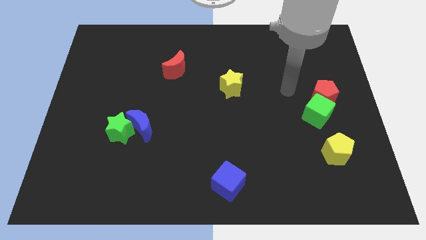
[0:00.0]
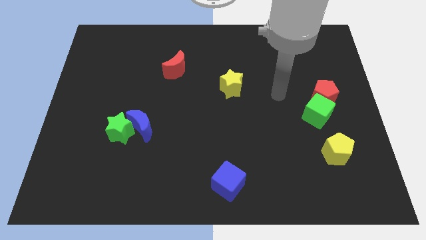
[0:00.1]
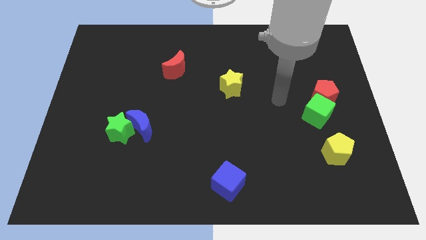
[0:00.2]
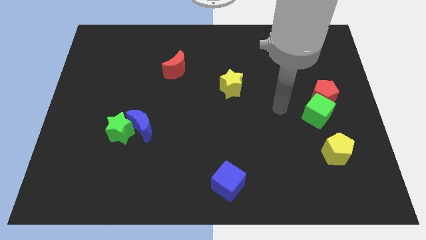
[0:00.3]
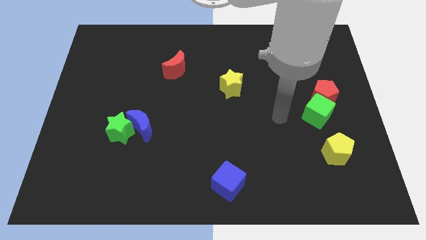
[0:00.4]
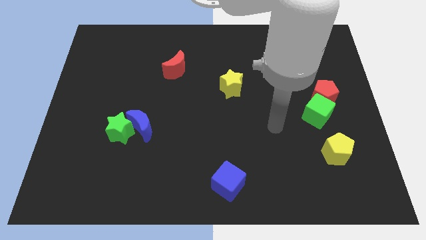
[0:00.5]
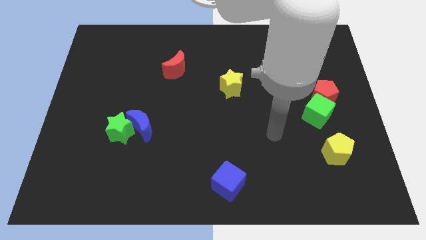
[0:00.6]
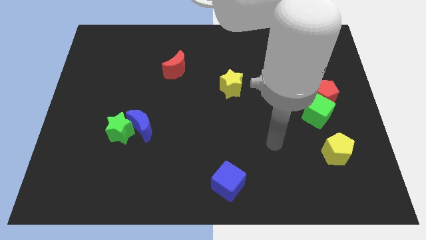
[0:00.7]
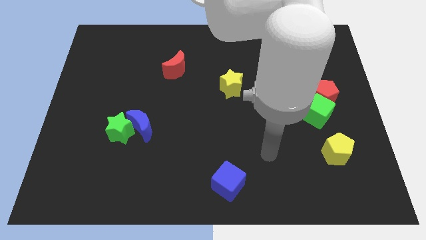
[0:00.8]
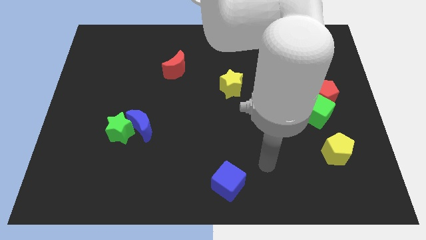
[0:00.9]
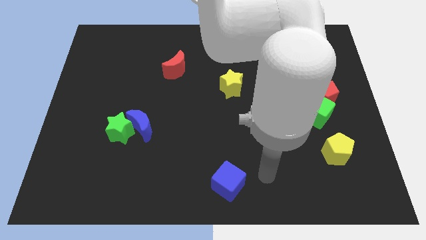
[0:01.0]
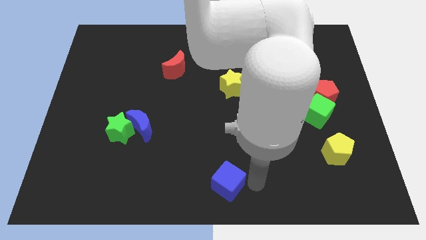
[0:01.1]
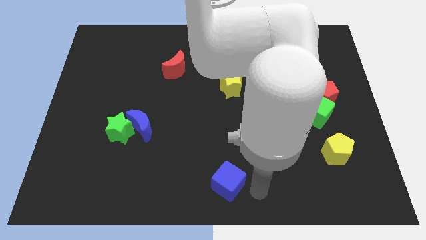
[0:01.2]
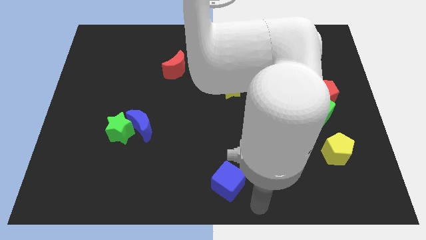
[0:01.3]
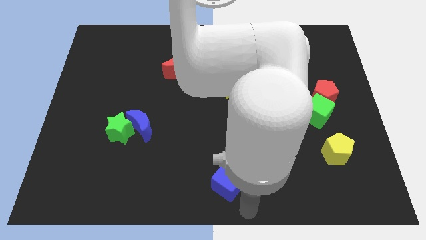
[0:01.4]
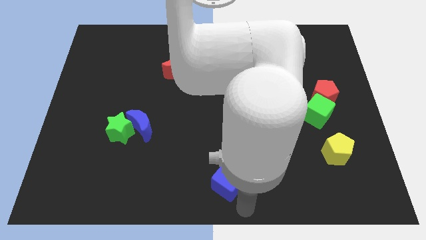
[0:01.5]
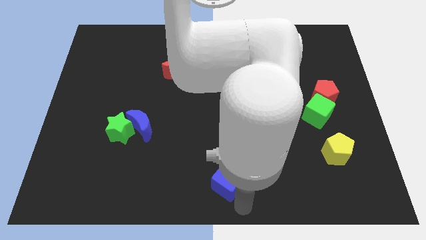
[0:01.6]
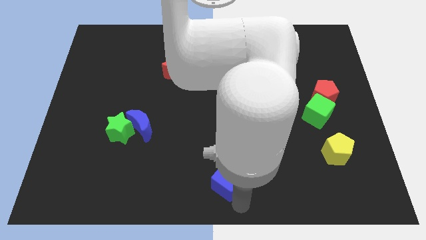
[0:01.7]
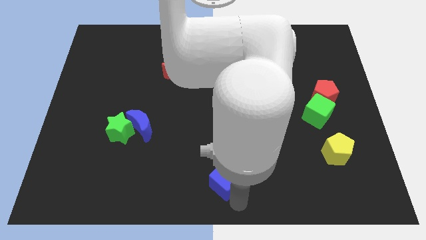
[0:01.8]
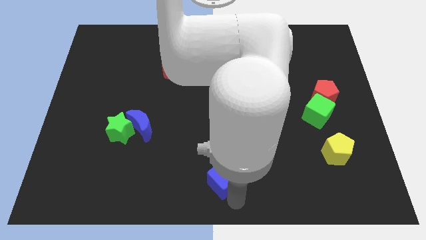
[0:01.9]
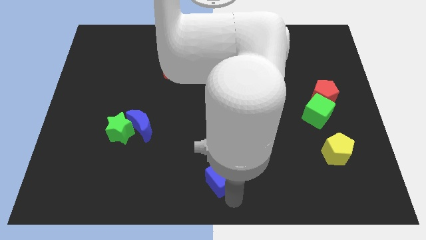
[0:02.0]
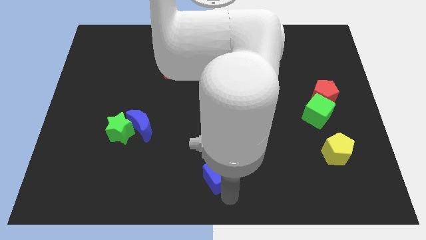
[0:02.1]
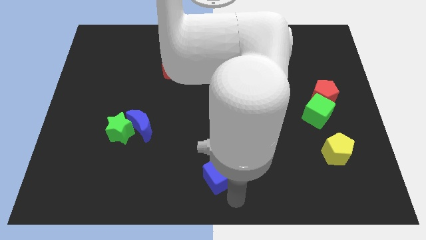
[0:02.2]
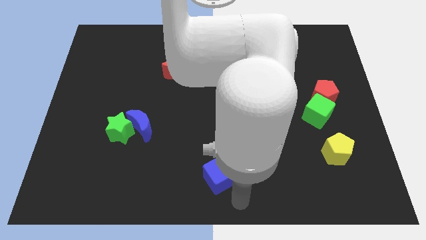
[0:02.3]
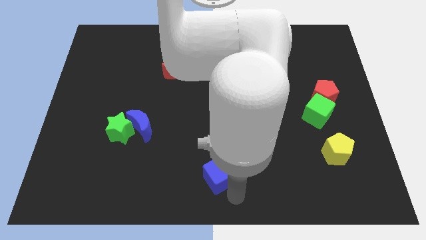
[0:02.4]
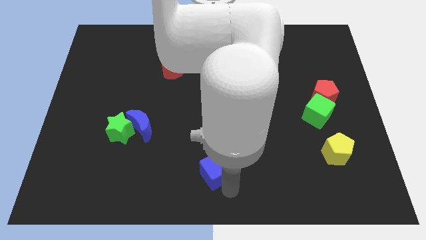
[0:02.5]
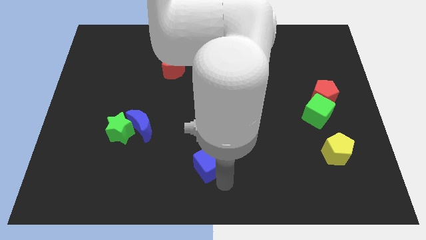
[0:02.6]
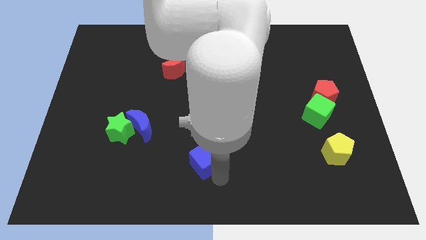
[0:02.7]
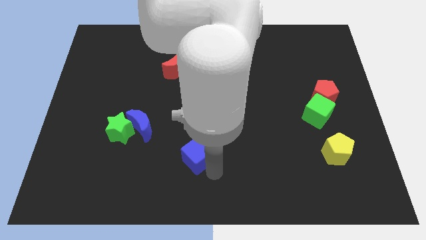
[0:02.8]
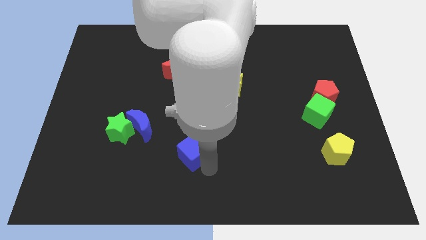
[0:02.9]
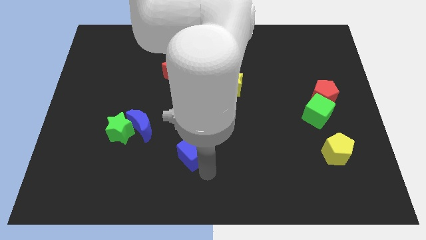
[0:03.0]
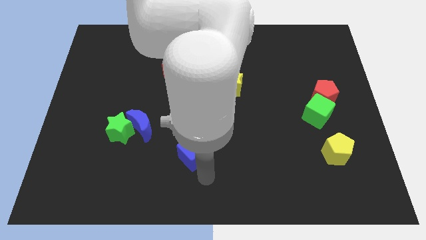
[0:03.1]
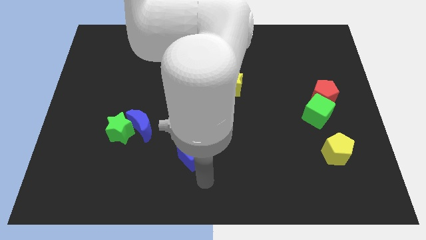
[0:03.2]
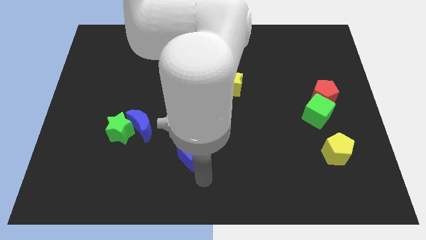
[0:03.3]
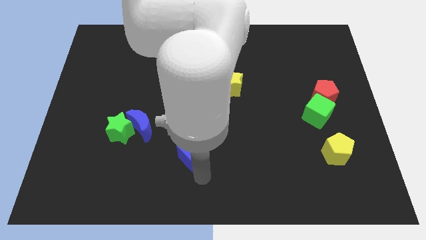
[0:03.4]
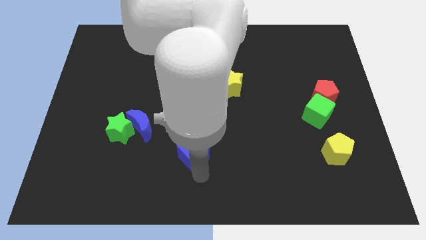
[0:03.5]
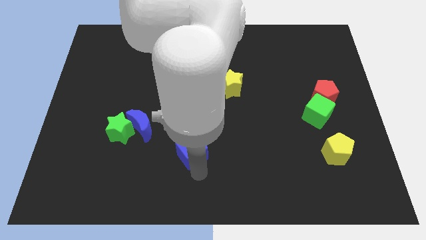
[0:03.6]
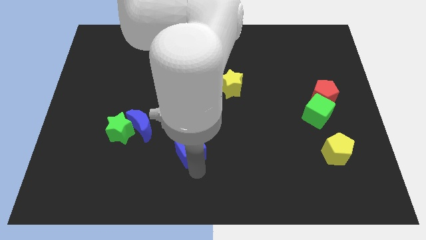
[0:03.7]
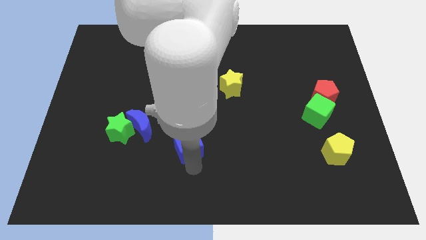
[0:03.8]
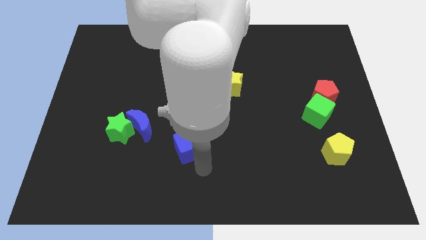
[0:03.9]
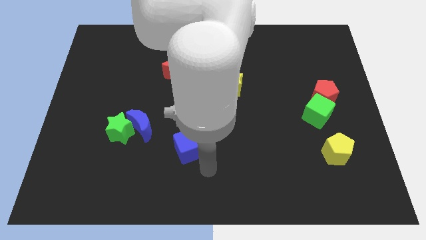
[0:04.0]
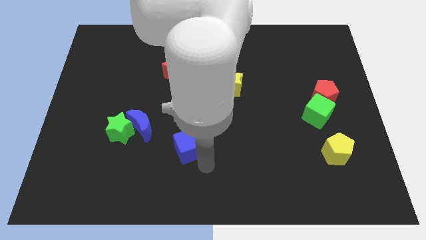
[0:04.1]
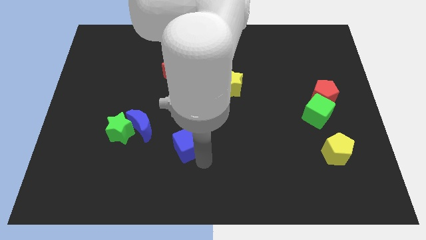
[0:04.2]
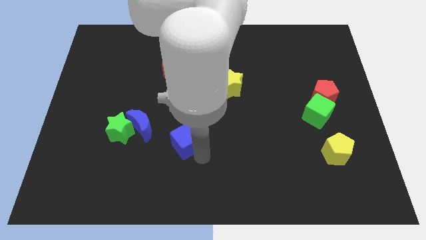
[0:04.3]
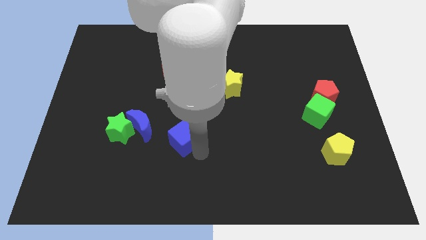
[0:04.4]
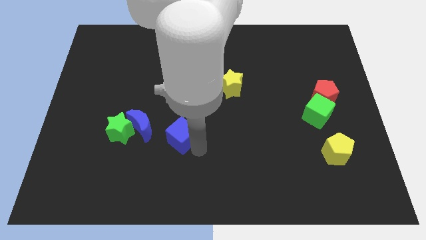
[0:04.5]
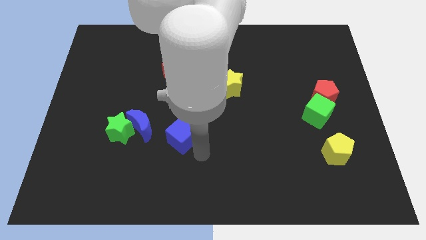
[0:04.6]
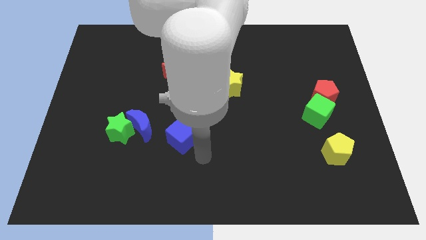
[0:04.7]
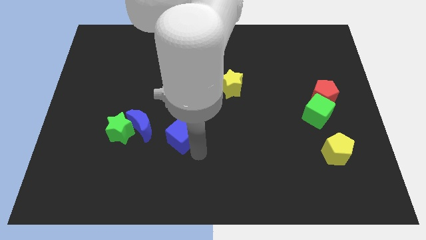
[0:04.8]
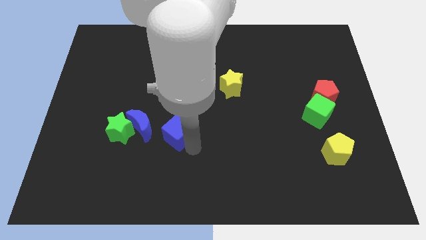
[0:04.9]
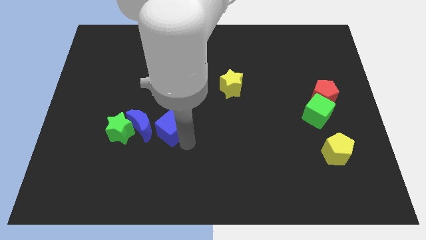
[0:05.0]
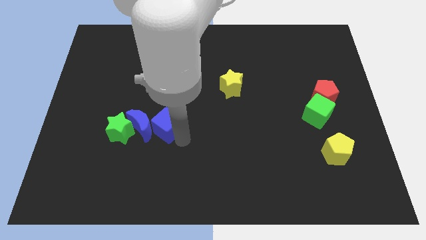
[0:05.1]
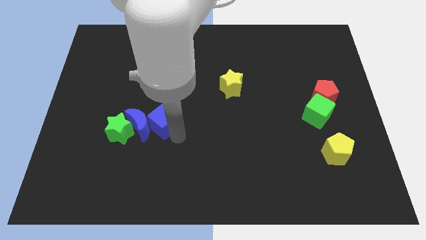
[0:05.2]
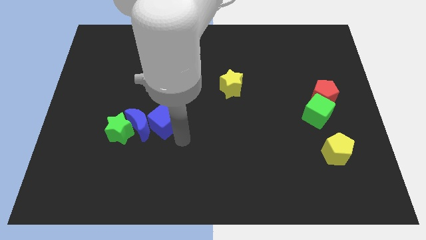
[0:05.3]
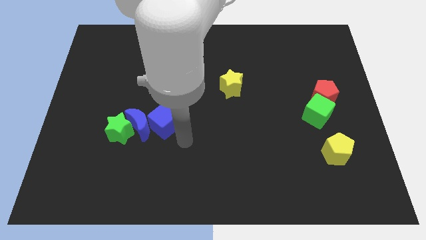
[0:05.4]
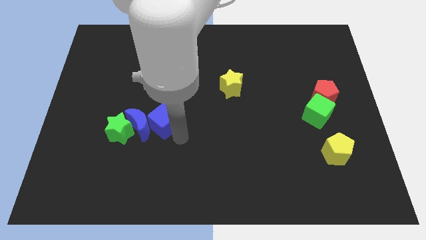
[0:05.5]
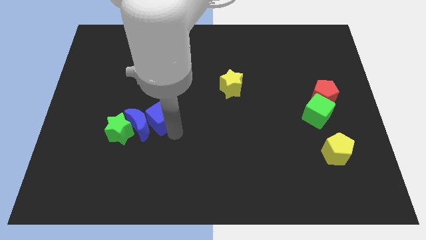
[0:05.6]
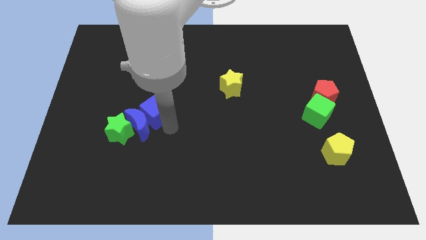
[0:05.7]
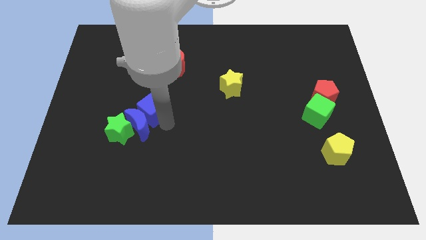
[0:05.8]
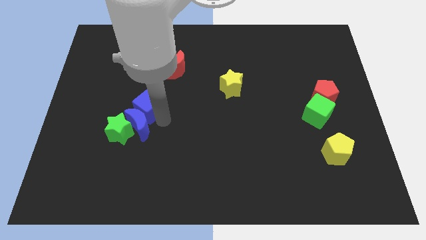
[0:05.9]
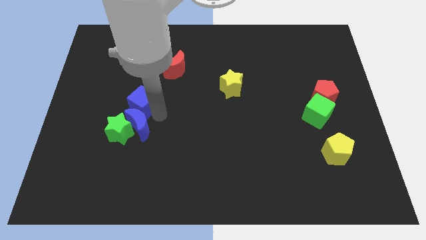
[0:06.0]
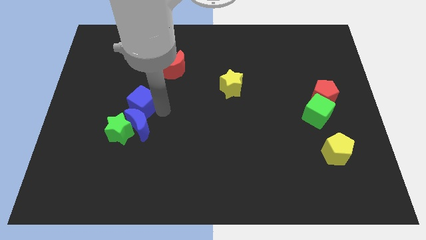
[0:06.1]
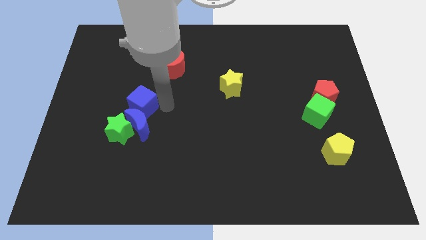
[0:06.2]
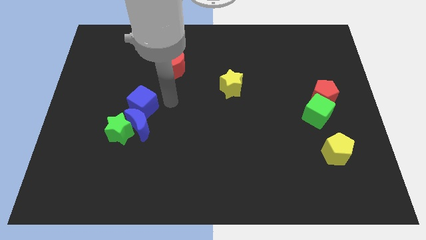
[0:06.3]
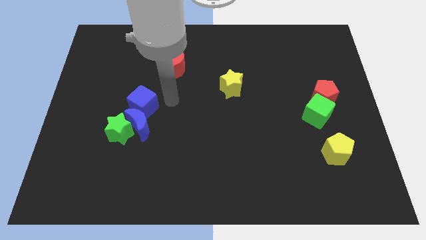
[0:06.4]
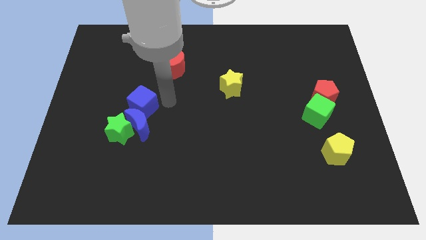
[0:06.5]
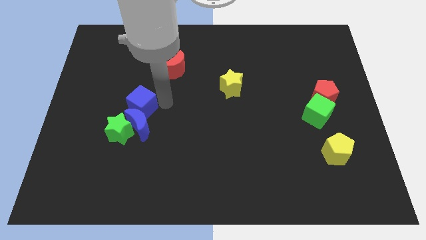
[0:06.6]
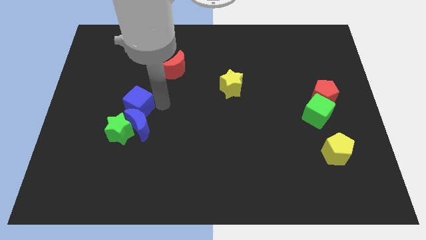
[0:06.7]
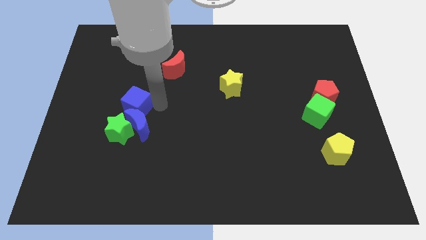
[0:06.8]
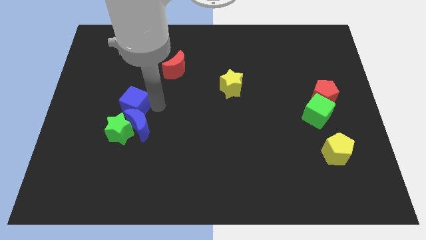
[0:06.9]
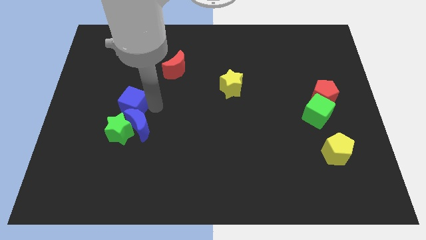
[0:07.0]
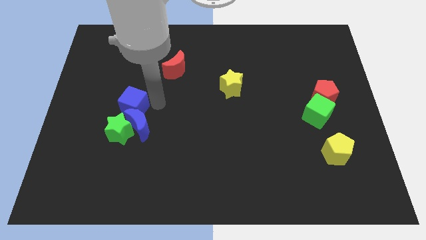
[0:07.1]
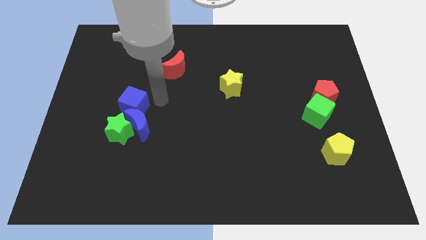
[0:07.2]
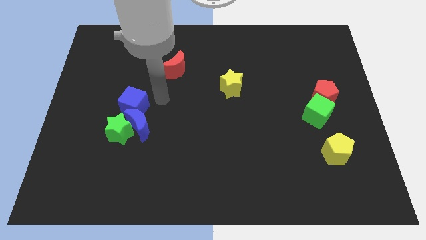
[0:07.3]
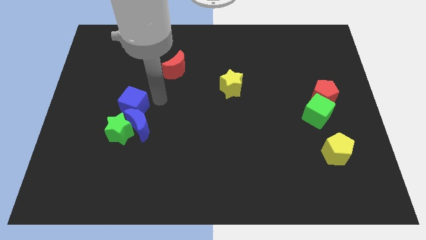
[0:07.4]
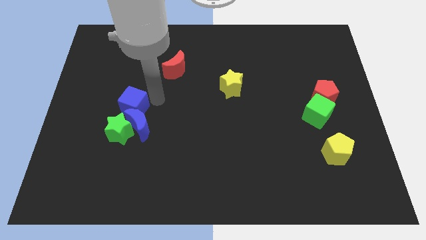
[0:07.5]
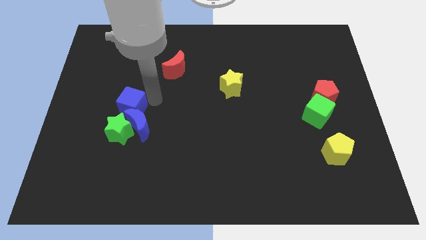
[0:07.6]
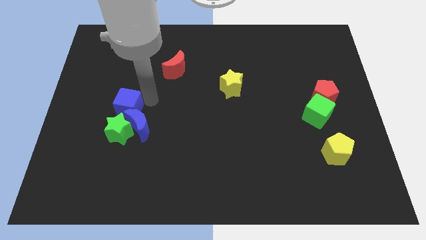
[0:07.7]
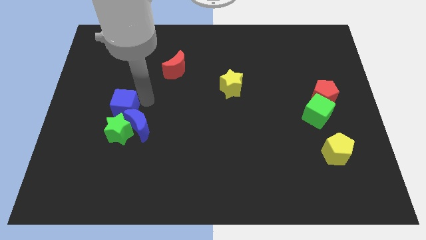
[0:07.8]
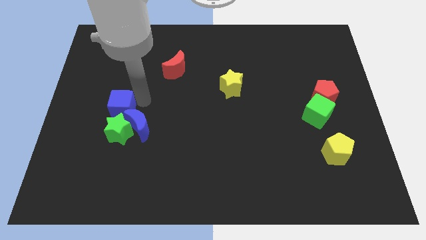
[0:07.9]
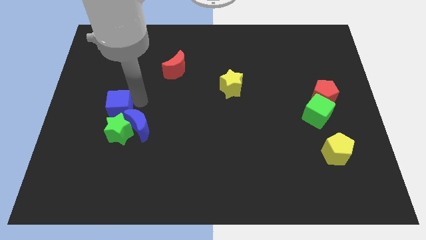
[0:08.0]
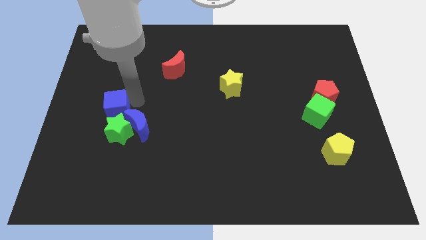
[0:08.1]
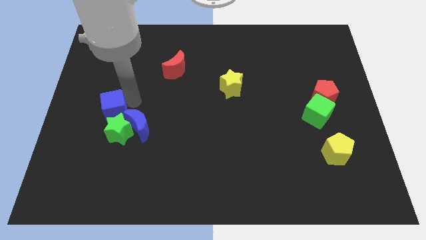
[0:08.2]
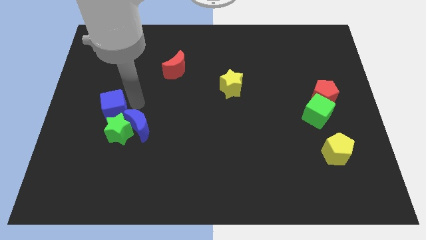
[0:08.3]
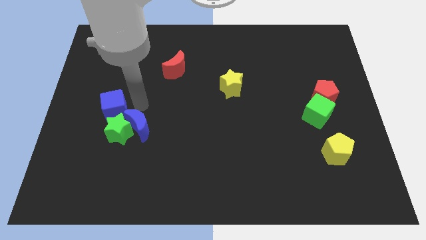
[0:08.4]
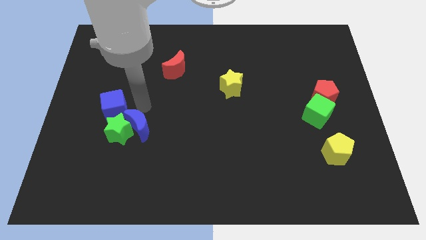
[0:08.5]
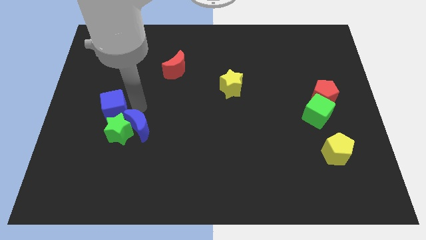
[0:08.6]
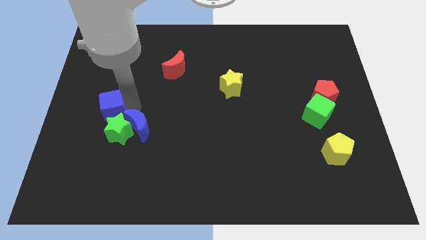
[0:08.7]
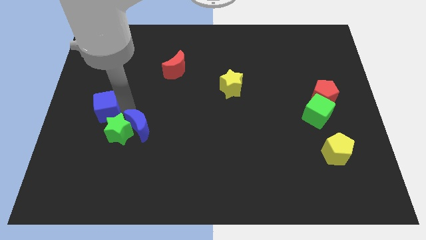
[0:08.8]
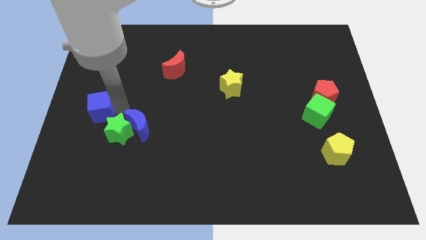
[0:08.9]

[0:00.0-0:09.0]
push the blue cube to the left side of the board
